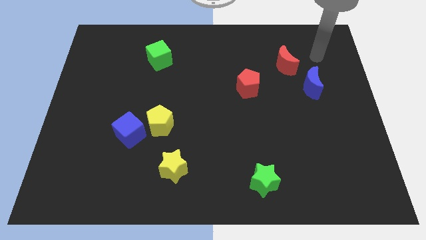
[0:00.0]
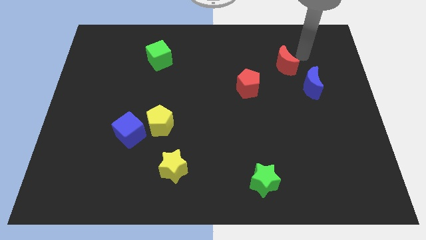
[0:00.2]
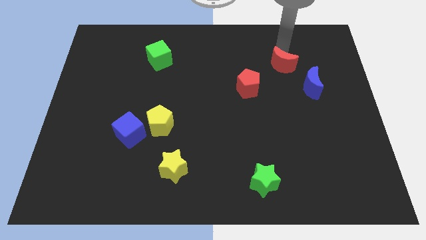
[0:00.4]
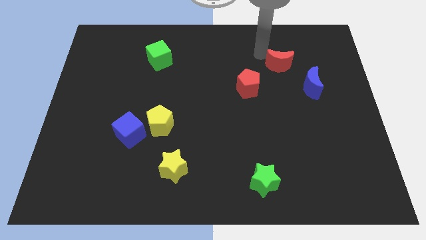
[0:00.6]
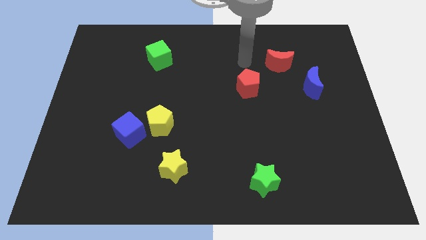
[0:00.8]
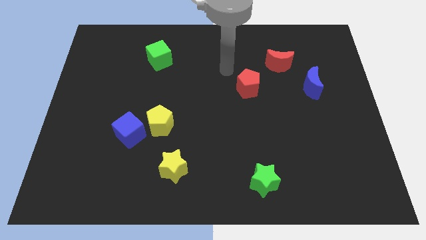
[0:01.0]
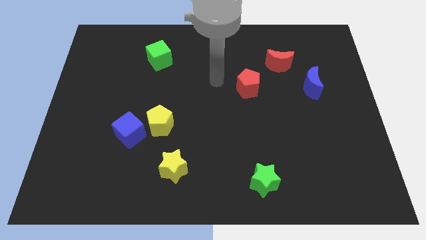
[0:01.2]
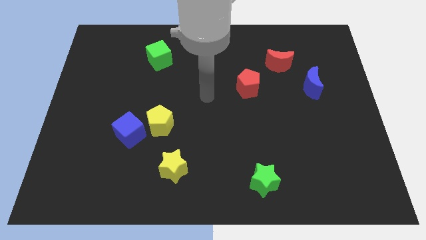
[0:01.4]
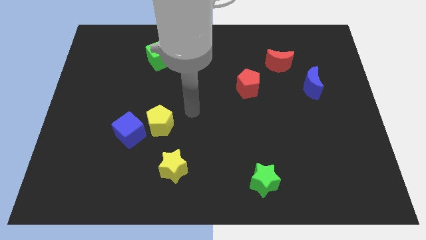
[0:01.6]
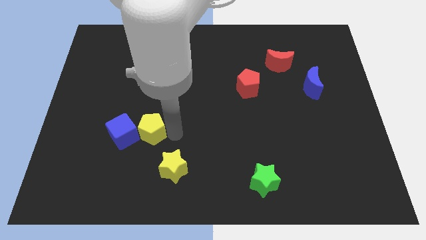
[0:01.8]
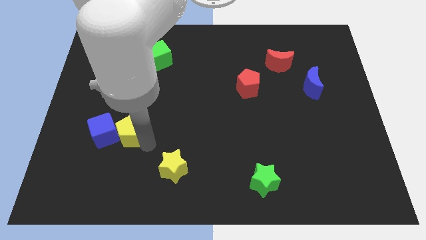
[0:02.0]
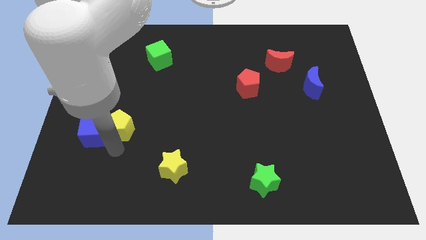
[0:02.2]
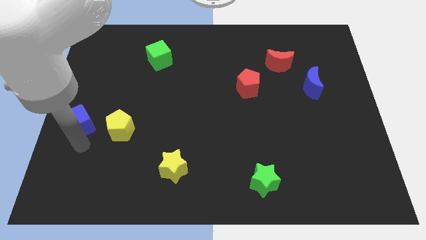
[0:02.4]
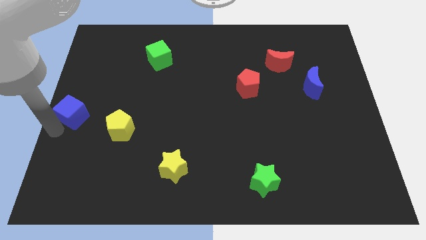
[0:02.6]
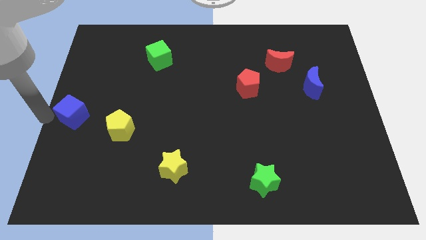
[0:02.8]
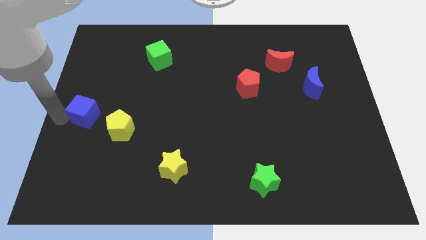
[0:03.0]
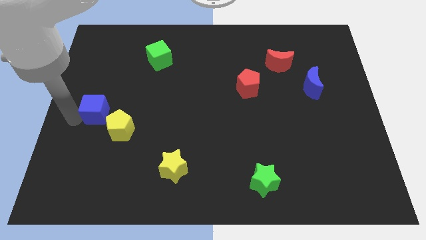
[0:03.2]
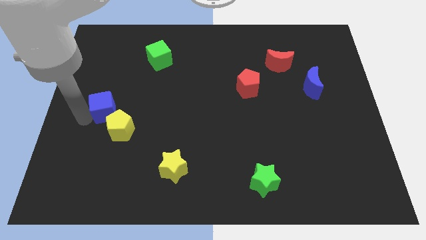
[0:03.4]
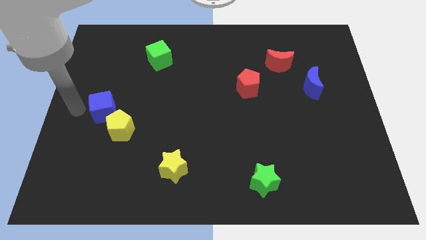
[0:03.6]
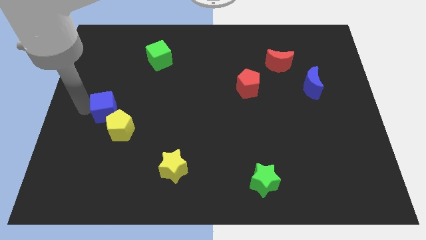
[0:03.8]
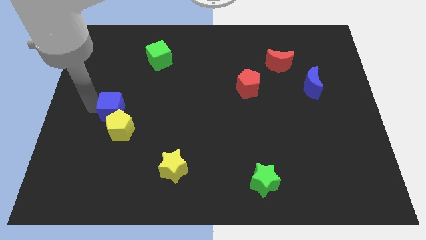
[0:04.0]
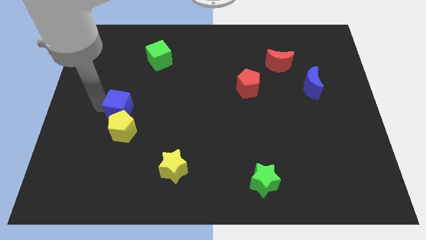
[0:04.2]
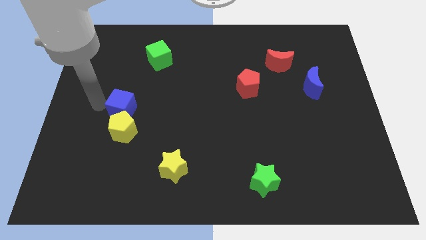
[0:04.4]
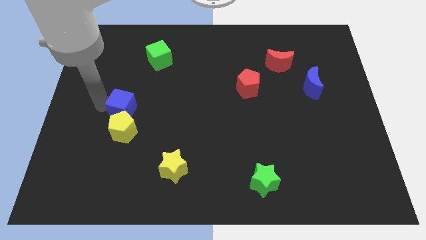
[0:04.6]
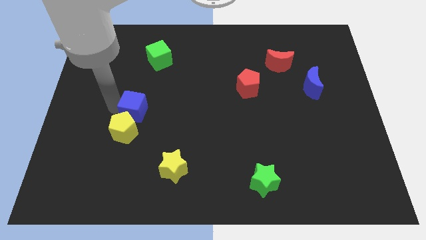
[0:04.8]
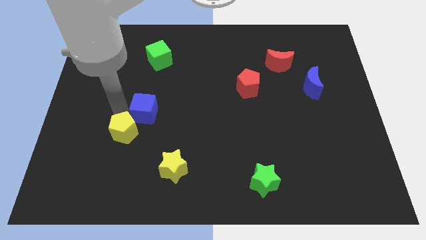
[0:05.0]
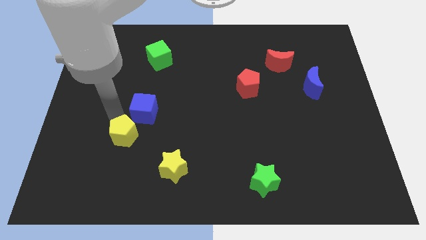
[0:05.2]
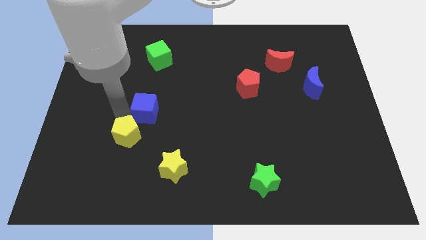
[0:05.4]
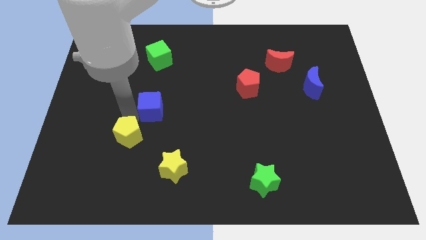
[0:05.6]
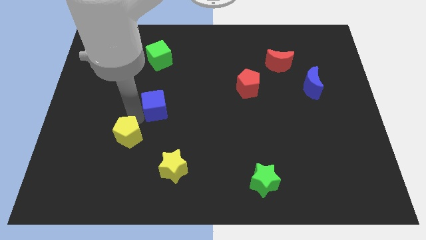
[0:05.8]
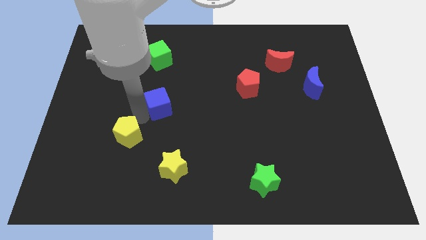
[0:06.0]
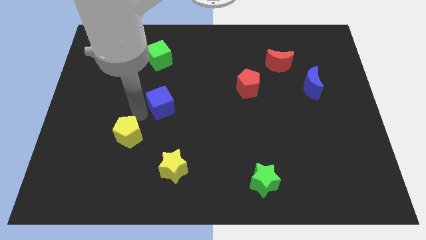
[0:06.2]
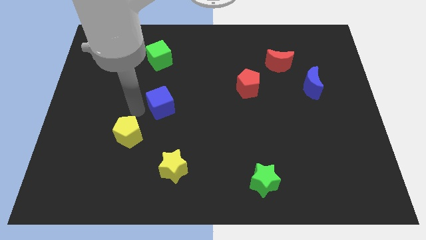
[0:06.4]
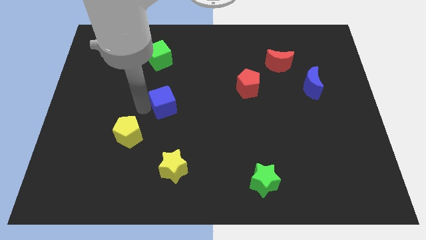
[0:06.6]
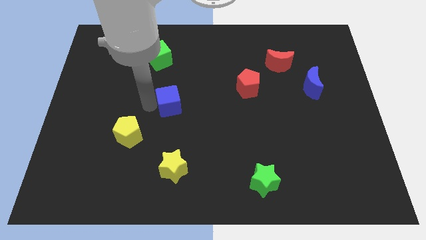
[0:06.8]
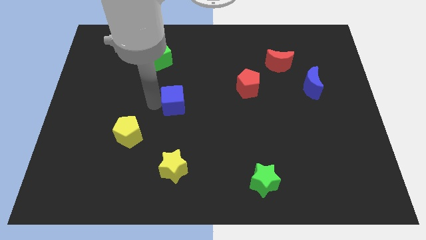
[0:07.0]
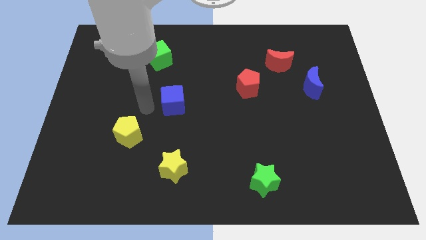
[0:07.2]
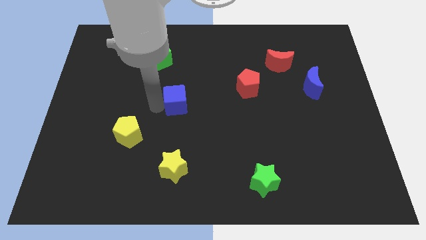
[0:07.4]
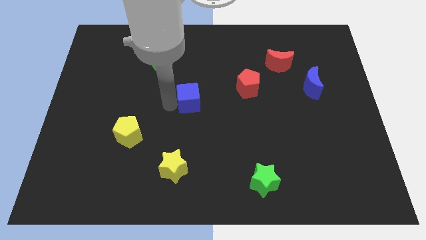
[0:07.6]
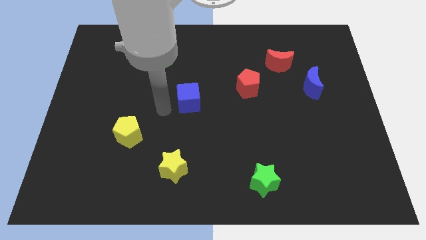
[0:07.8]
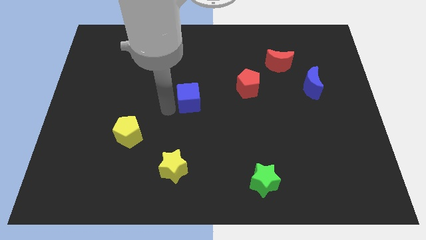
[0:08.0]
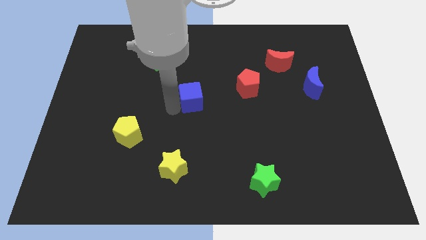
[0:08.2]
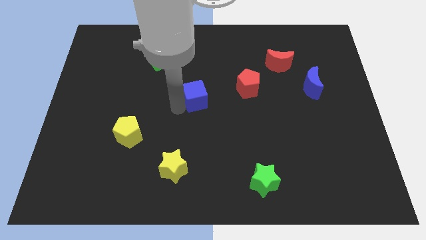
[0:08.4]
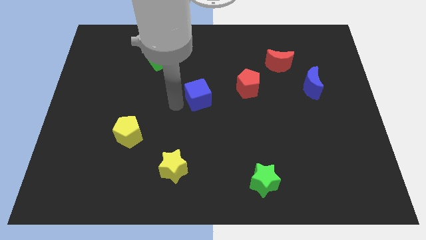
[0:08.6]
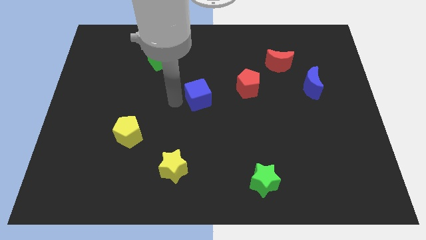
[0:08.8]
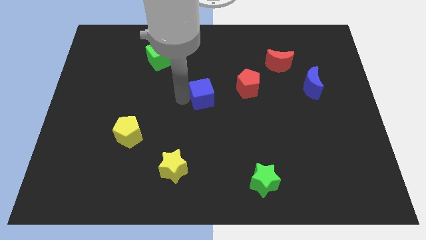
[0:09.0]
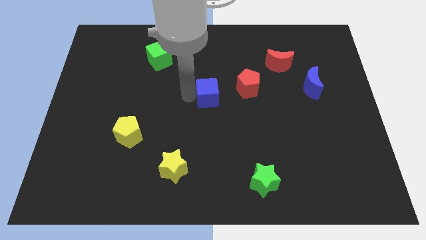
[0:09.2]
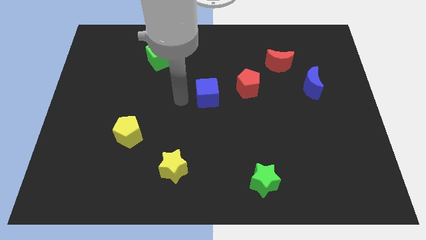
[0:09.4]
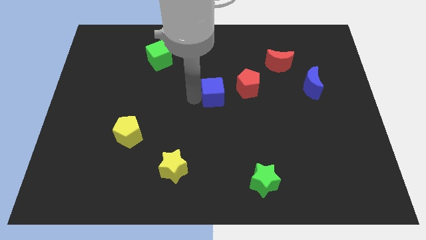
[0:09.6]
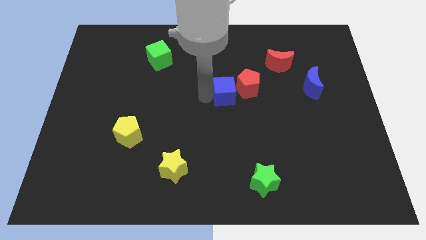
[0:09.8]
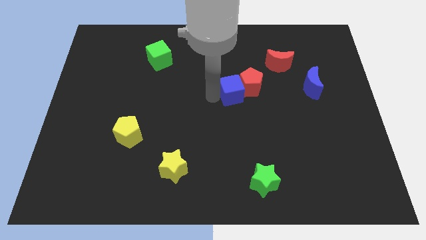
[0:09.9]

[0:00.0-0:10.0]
move the blue cube close to the red pentagon

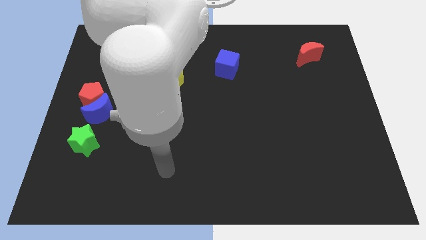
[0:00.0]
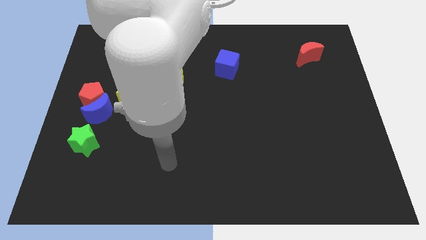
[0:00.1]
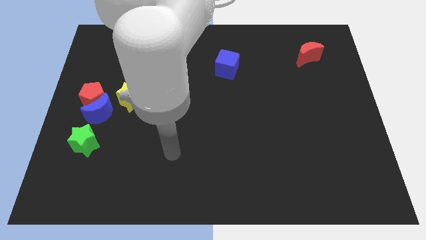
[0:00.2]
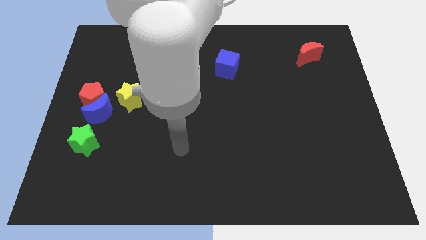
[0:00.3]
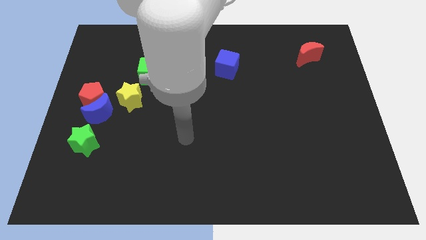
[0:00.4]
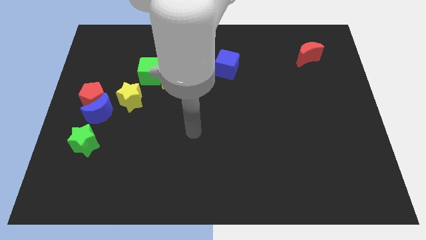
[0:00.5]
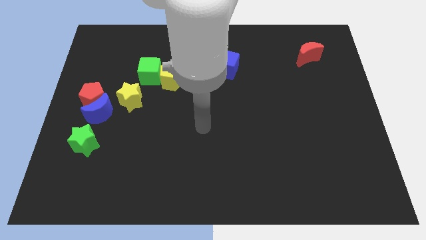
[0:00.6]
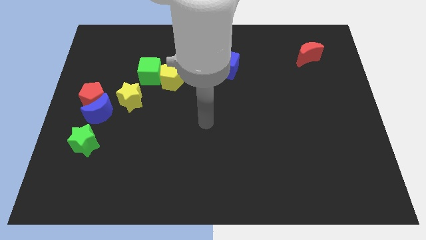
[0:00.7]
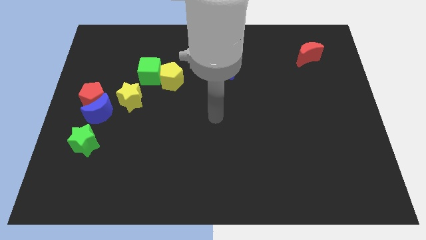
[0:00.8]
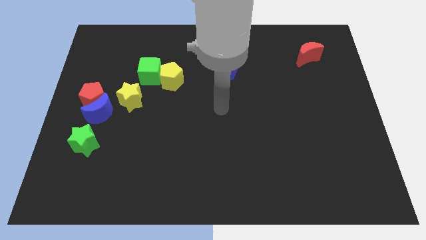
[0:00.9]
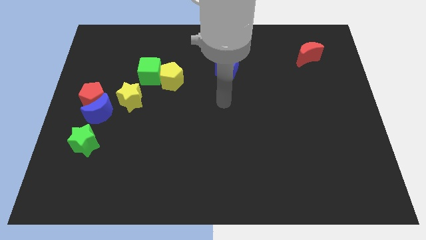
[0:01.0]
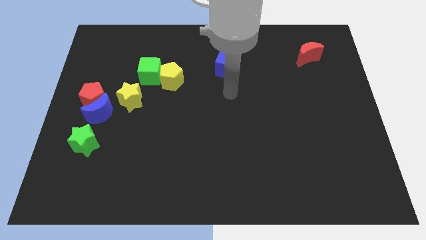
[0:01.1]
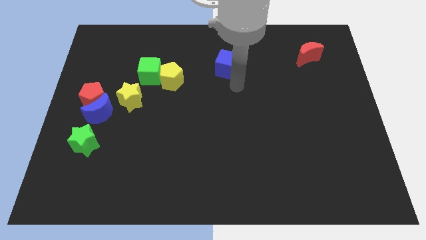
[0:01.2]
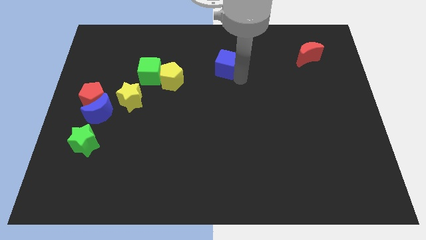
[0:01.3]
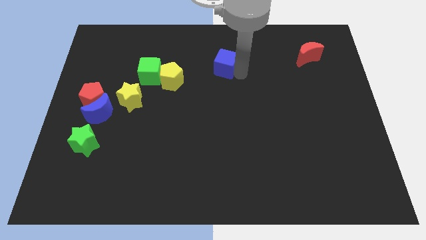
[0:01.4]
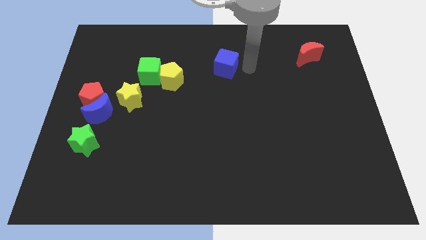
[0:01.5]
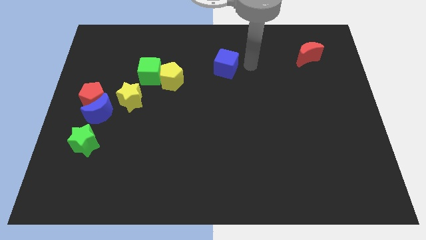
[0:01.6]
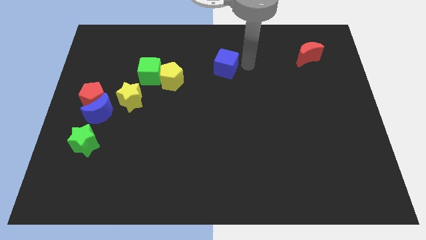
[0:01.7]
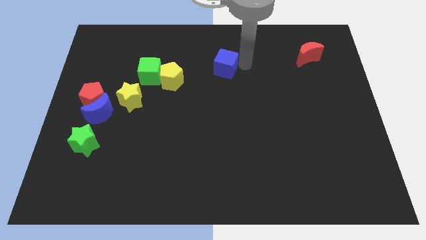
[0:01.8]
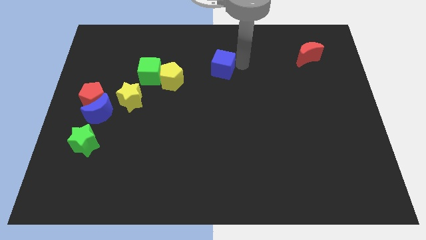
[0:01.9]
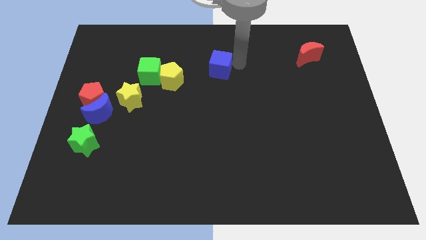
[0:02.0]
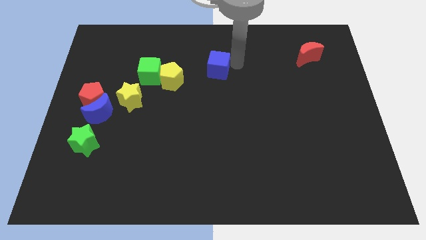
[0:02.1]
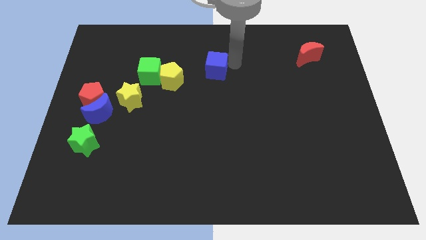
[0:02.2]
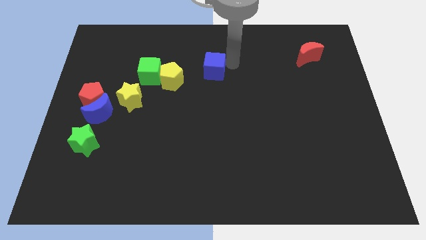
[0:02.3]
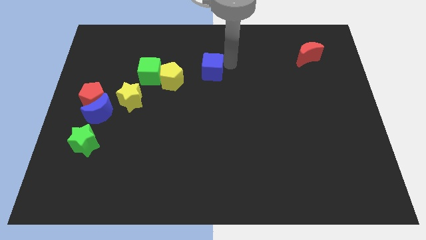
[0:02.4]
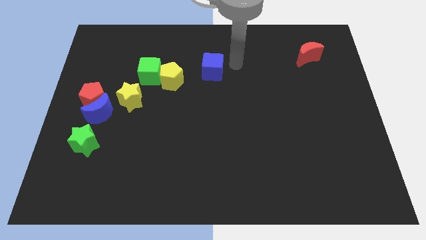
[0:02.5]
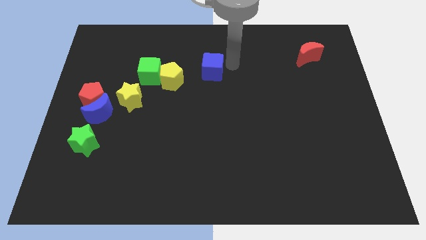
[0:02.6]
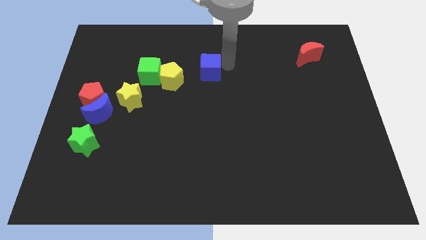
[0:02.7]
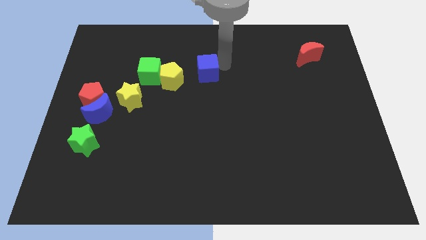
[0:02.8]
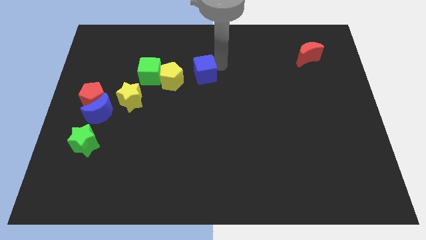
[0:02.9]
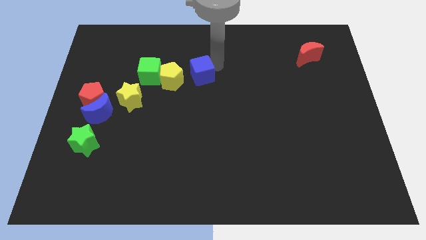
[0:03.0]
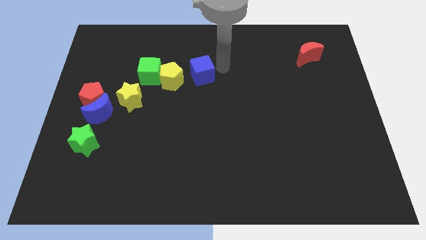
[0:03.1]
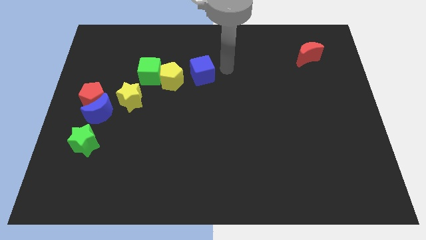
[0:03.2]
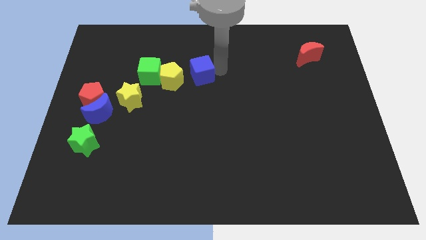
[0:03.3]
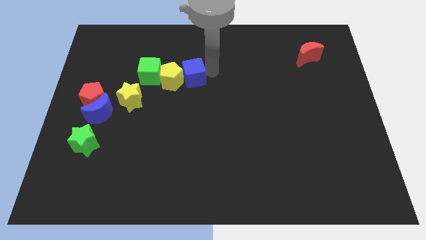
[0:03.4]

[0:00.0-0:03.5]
push the blue cube to the yellow pentagon
